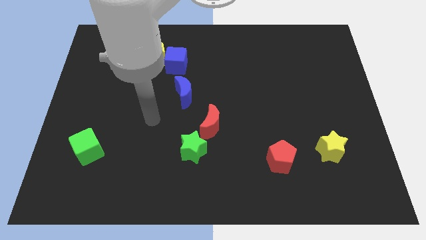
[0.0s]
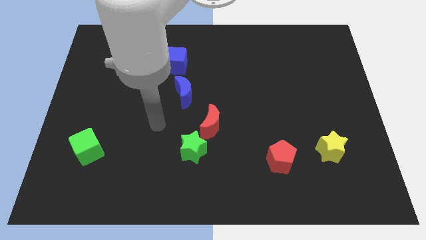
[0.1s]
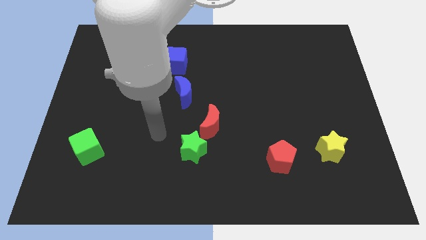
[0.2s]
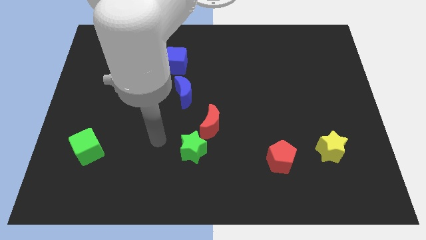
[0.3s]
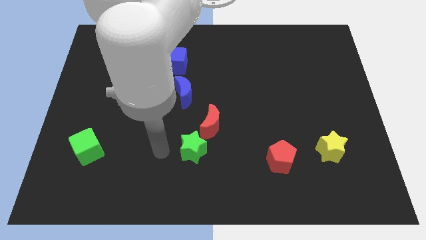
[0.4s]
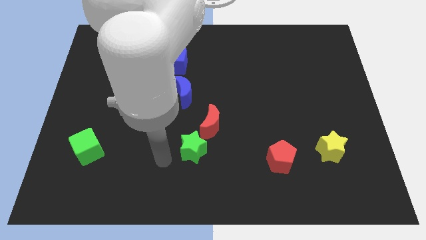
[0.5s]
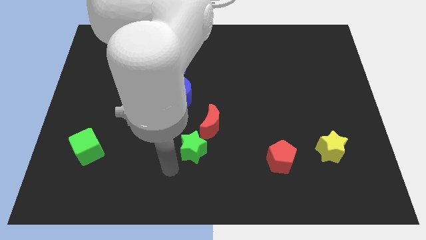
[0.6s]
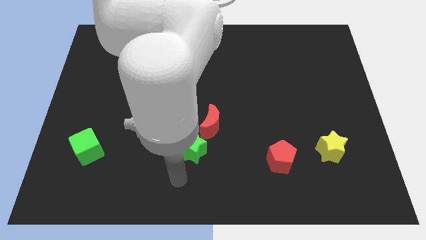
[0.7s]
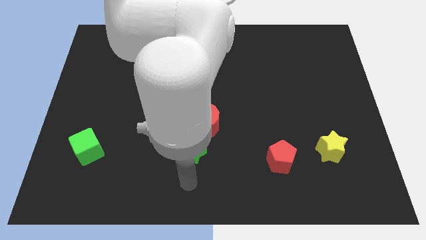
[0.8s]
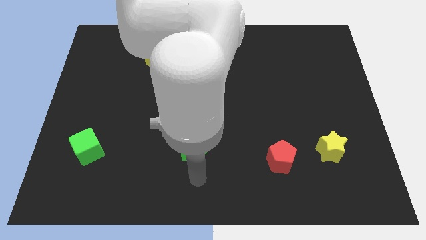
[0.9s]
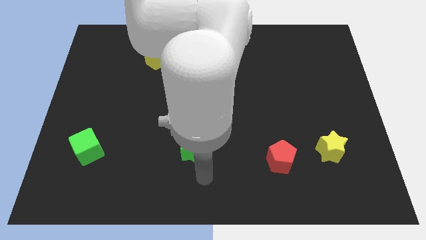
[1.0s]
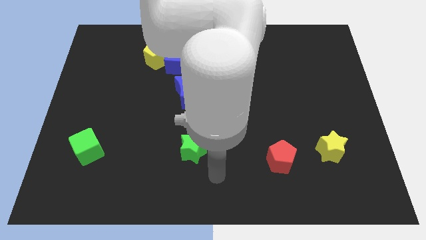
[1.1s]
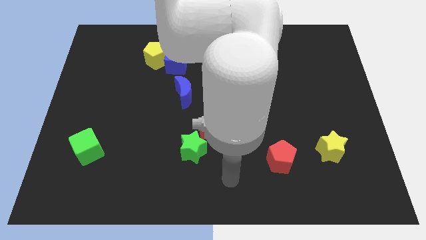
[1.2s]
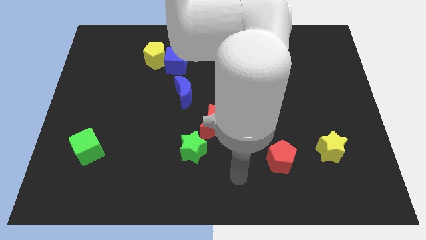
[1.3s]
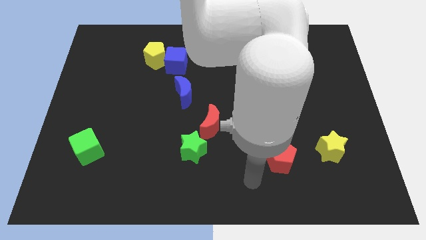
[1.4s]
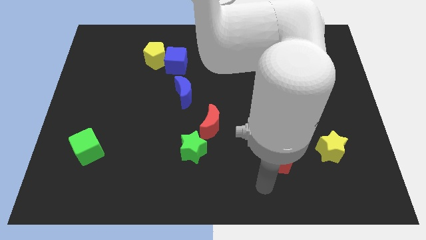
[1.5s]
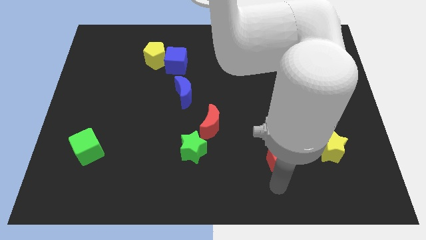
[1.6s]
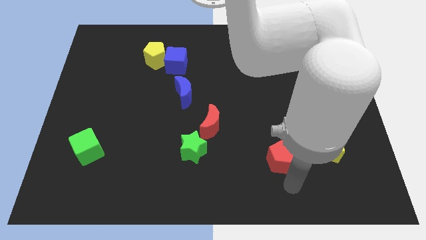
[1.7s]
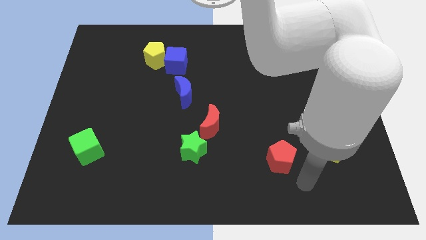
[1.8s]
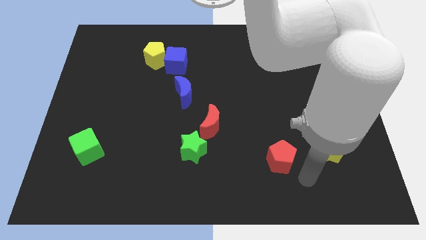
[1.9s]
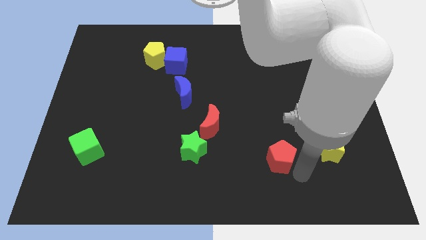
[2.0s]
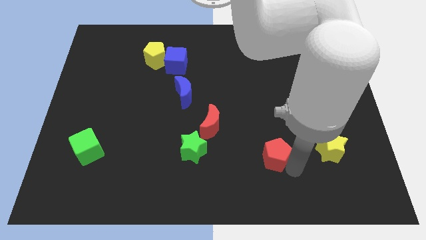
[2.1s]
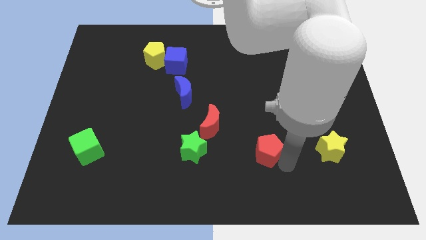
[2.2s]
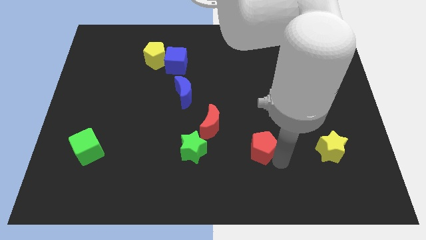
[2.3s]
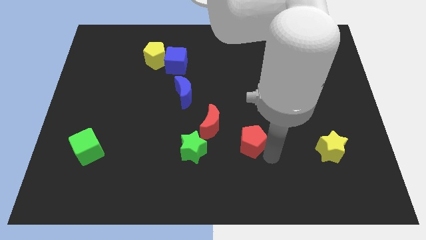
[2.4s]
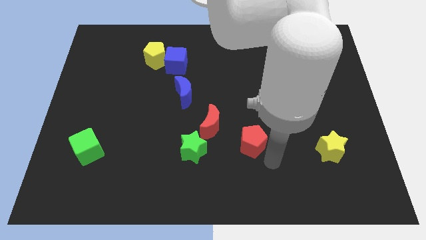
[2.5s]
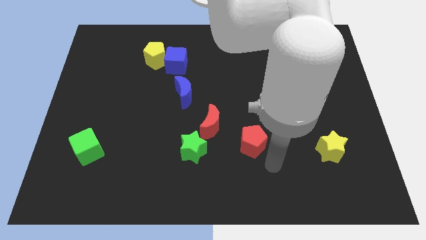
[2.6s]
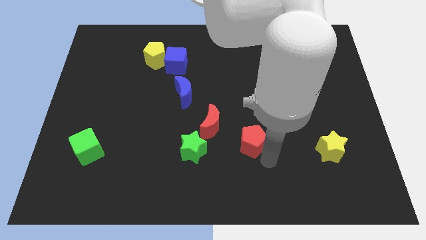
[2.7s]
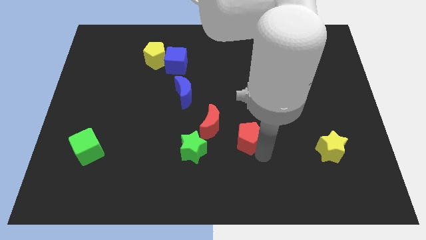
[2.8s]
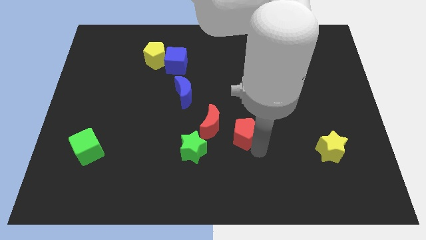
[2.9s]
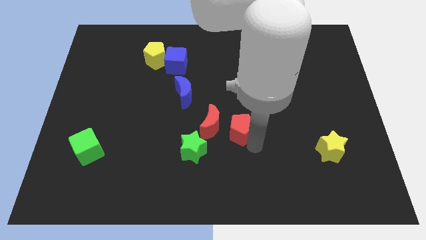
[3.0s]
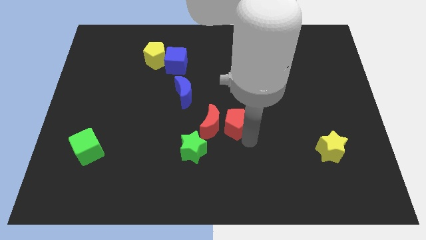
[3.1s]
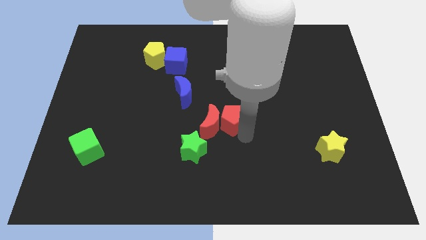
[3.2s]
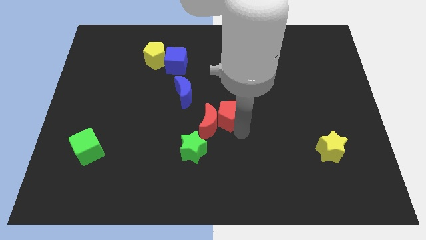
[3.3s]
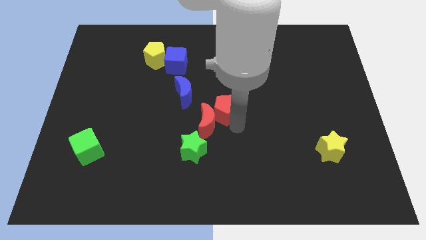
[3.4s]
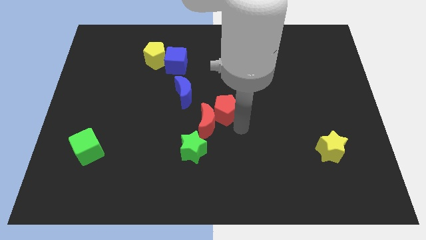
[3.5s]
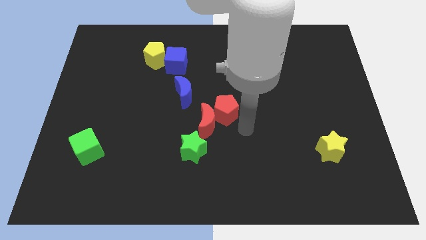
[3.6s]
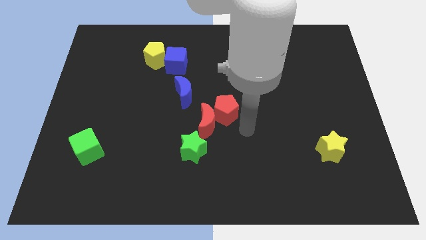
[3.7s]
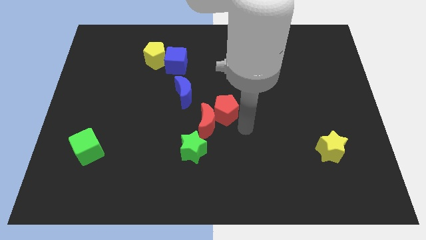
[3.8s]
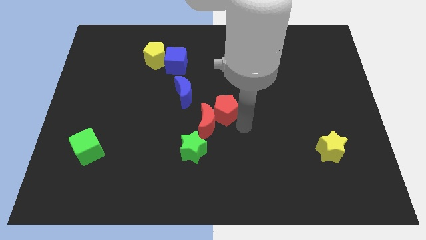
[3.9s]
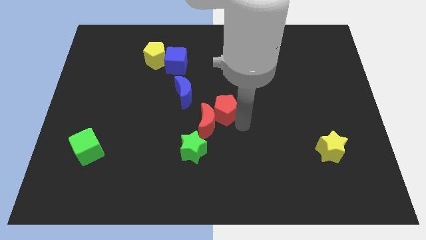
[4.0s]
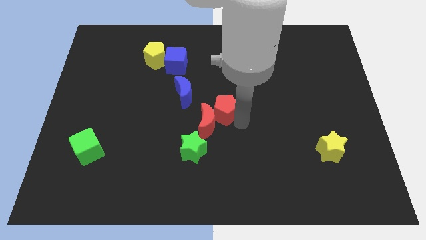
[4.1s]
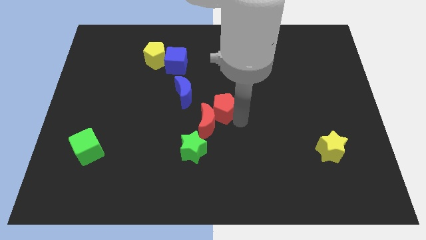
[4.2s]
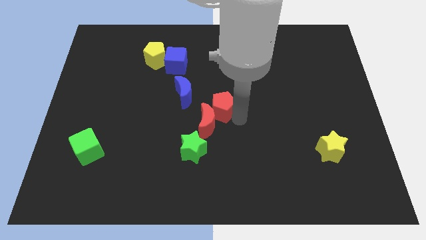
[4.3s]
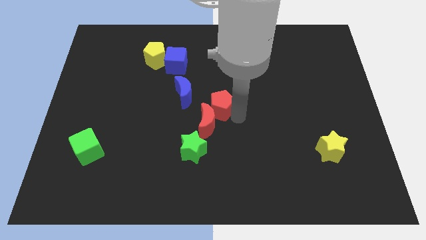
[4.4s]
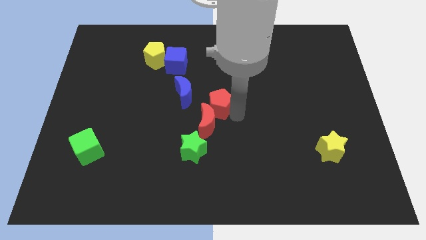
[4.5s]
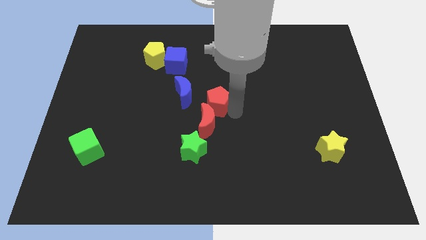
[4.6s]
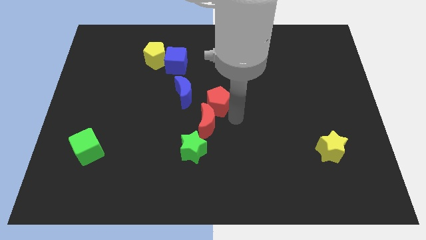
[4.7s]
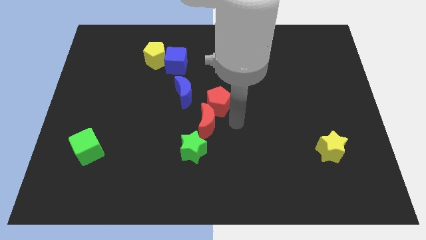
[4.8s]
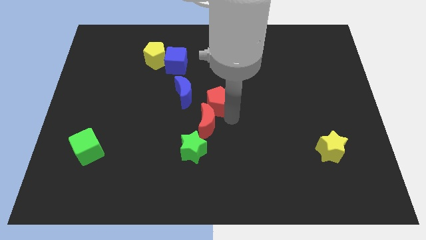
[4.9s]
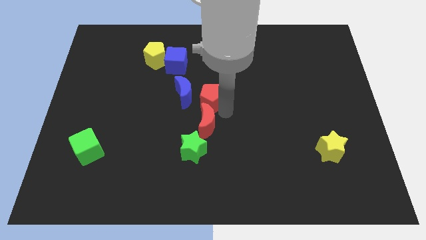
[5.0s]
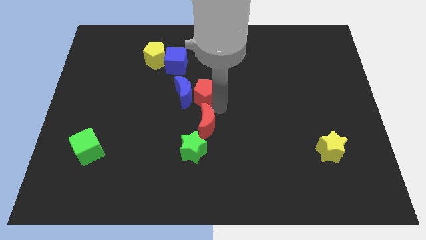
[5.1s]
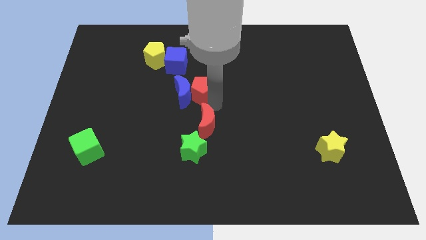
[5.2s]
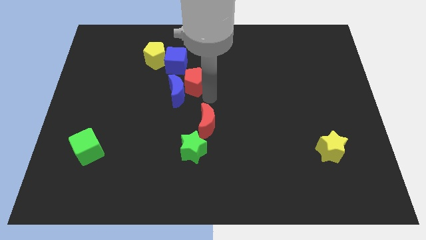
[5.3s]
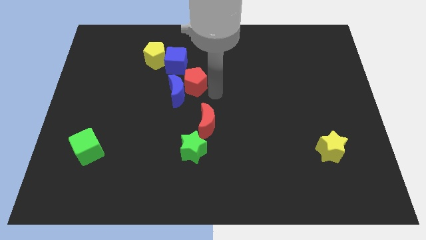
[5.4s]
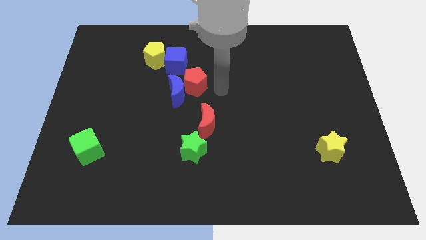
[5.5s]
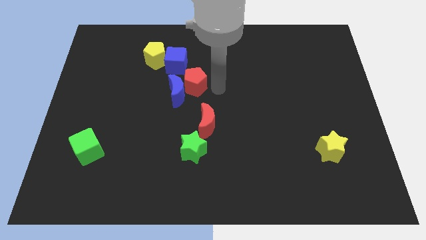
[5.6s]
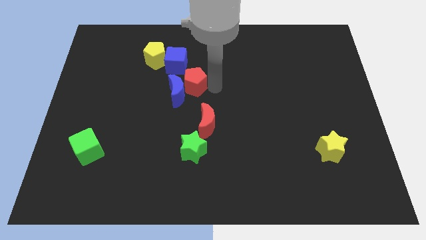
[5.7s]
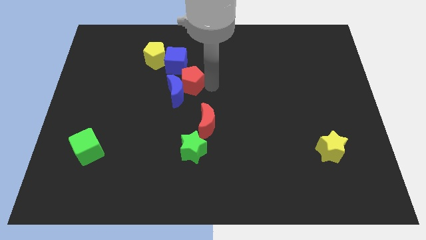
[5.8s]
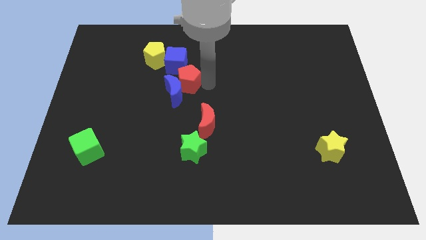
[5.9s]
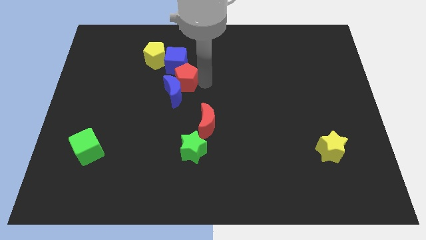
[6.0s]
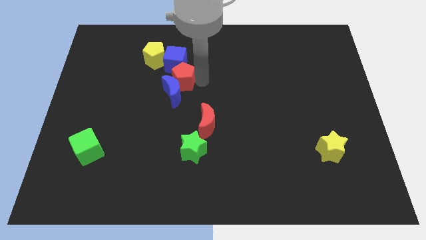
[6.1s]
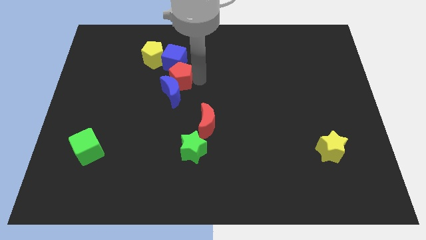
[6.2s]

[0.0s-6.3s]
slide the red pentagon diagonally up and to the left of the blue moon
